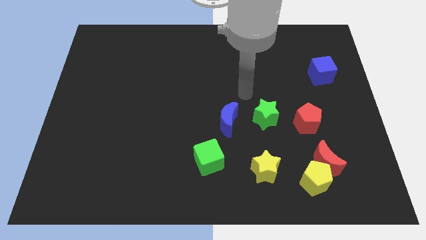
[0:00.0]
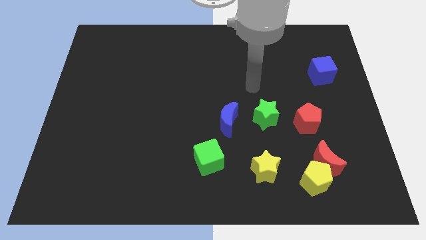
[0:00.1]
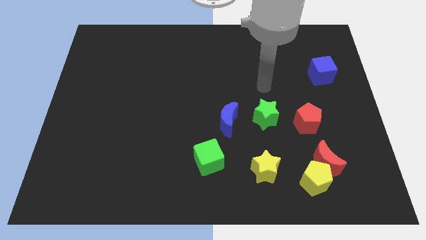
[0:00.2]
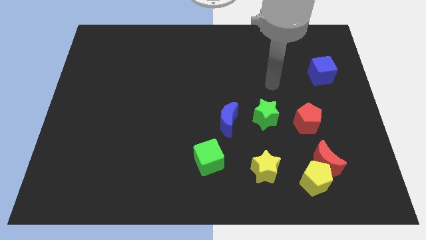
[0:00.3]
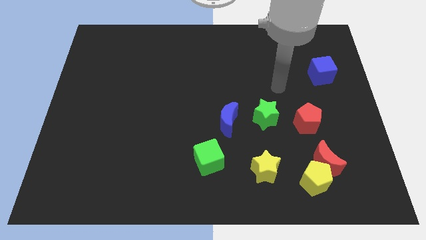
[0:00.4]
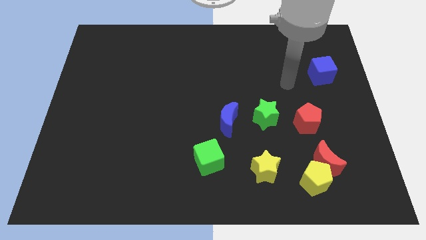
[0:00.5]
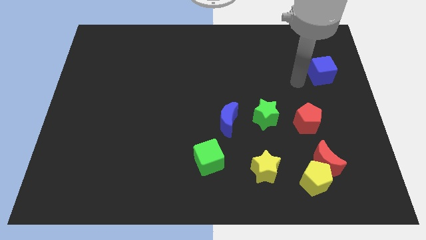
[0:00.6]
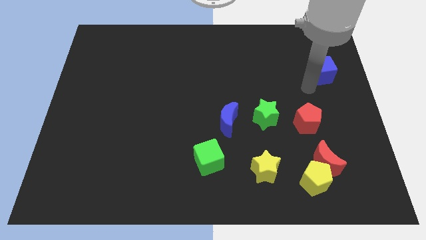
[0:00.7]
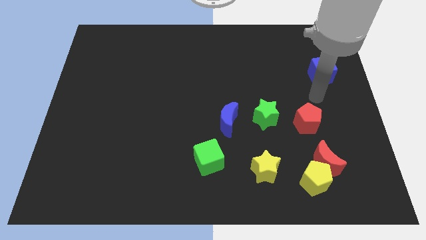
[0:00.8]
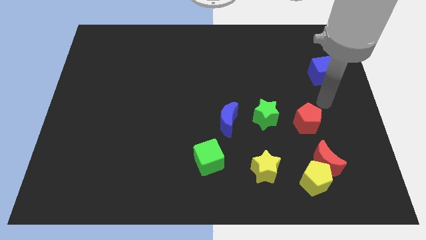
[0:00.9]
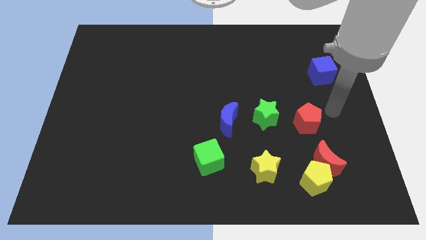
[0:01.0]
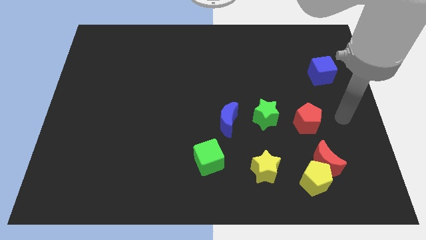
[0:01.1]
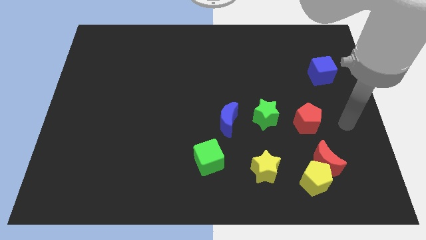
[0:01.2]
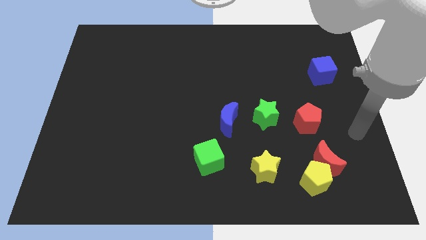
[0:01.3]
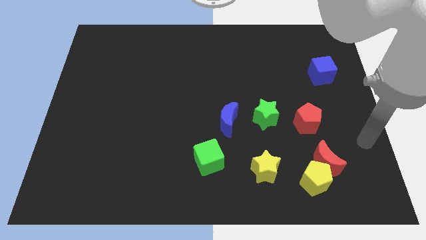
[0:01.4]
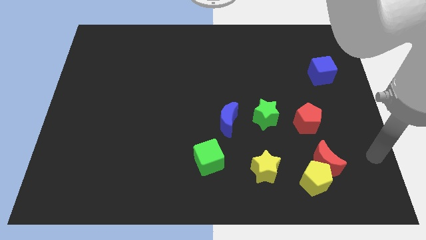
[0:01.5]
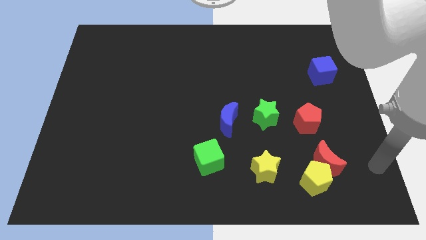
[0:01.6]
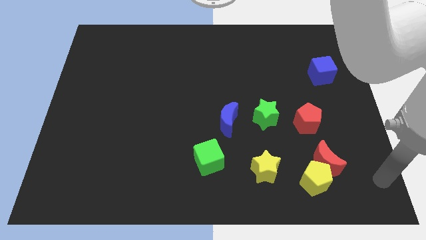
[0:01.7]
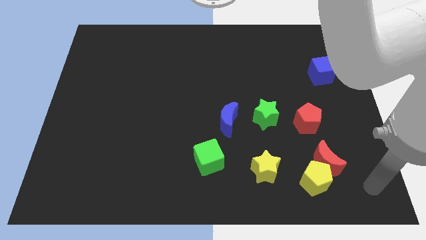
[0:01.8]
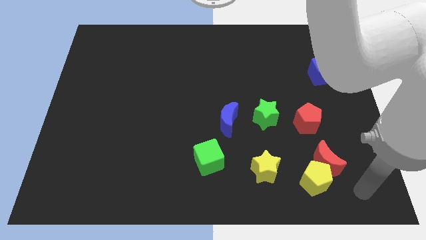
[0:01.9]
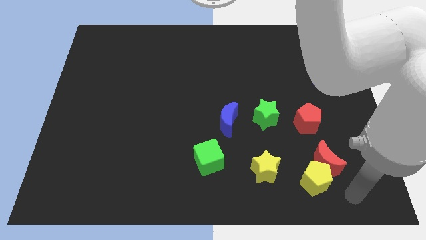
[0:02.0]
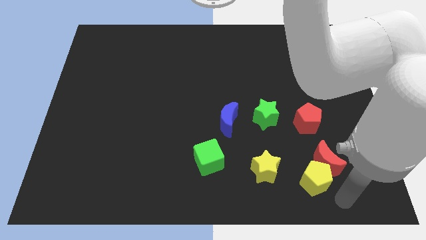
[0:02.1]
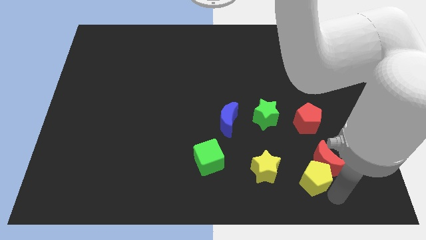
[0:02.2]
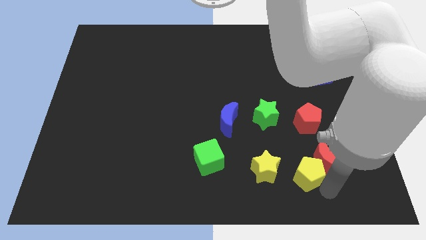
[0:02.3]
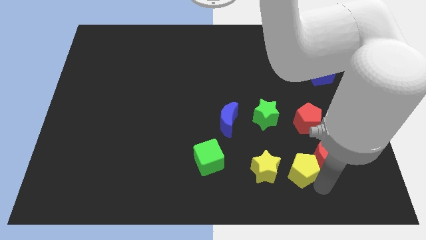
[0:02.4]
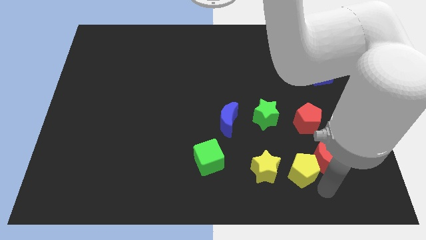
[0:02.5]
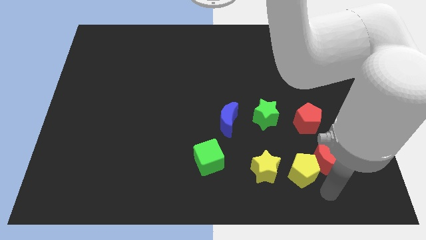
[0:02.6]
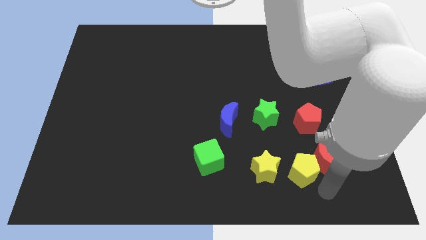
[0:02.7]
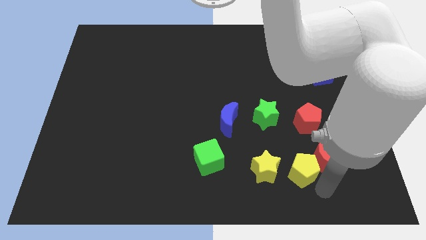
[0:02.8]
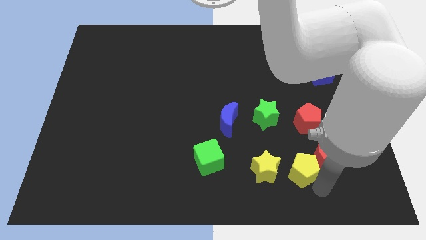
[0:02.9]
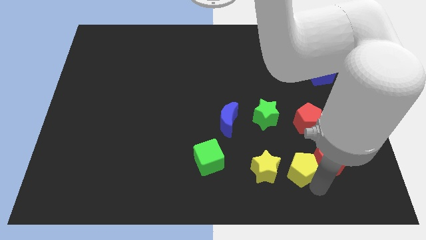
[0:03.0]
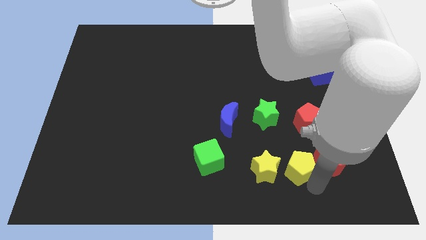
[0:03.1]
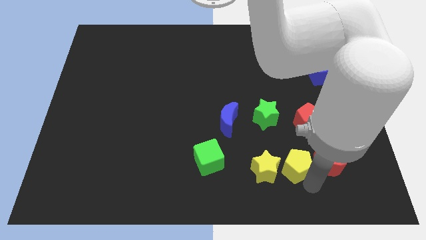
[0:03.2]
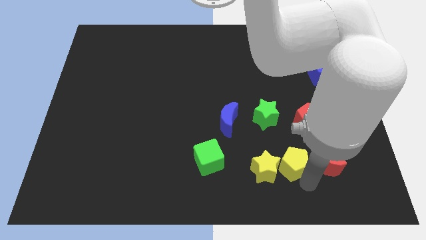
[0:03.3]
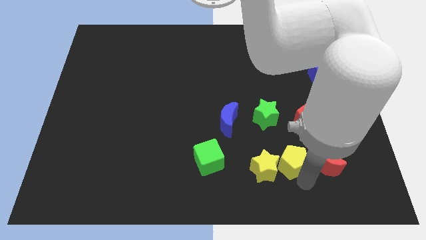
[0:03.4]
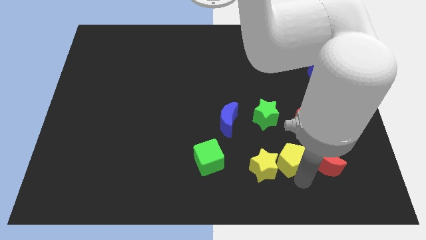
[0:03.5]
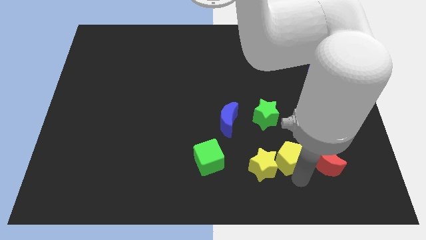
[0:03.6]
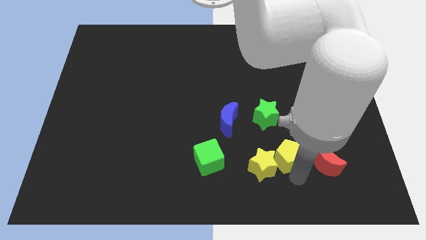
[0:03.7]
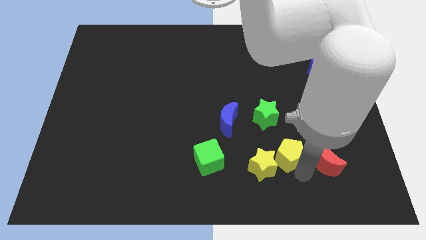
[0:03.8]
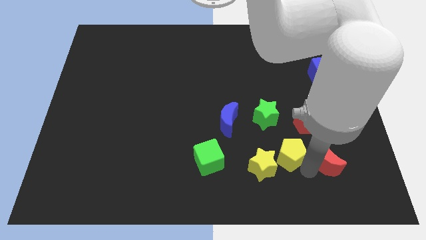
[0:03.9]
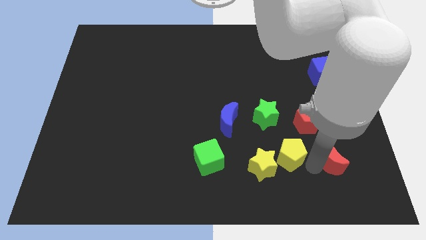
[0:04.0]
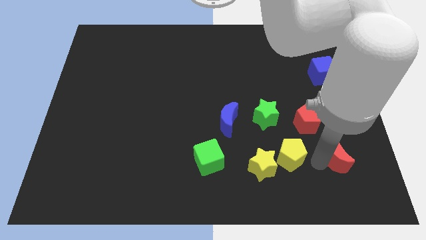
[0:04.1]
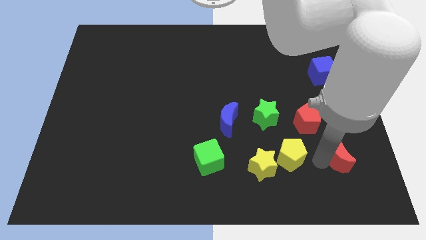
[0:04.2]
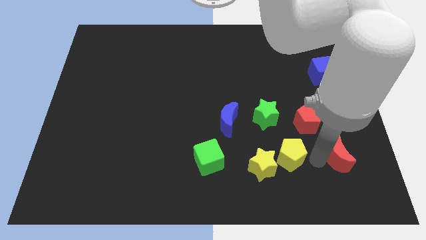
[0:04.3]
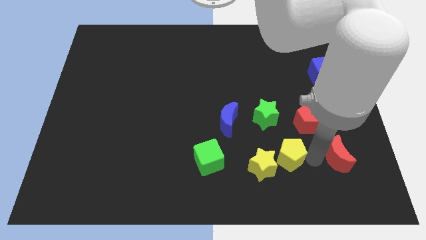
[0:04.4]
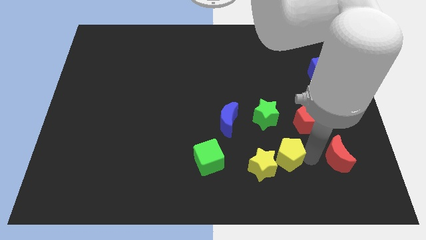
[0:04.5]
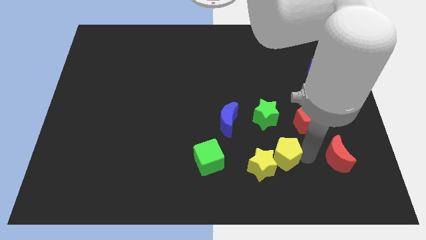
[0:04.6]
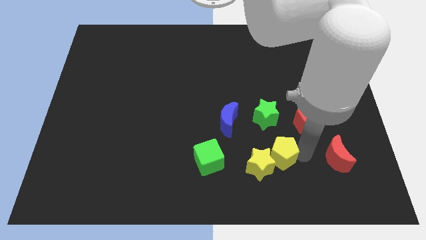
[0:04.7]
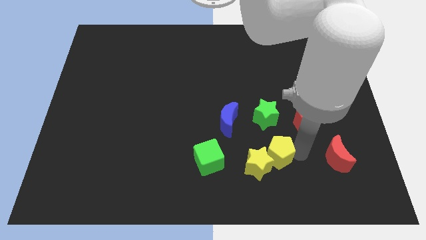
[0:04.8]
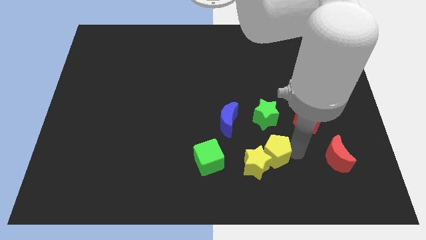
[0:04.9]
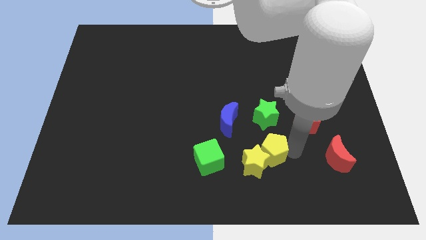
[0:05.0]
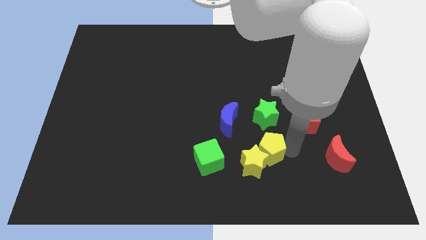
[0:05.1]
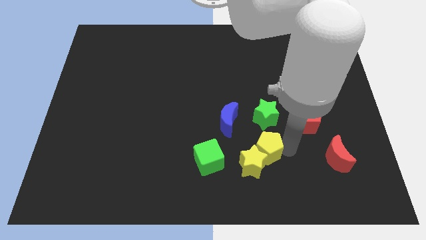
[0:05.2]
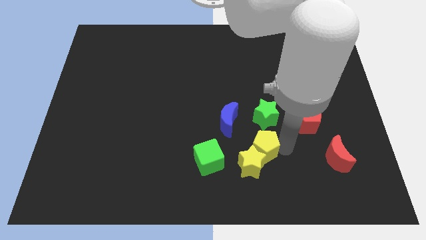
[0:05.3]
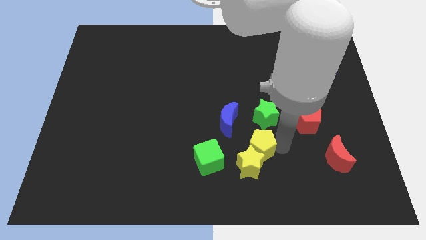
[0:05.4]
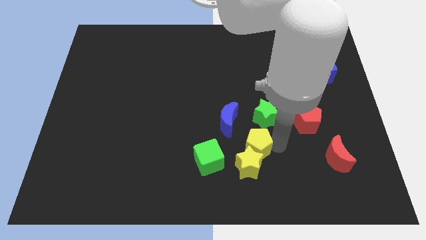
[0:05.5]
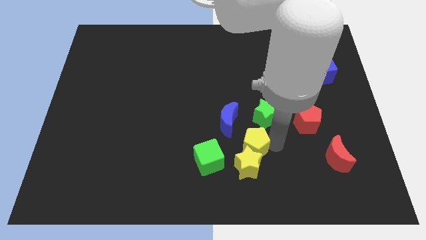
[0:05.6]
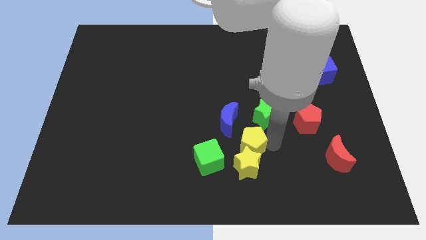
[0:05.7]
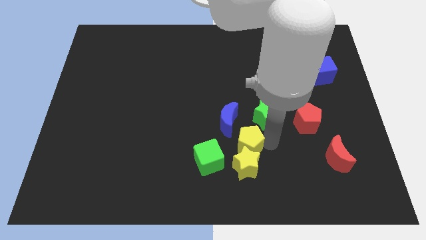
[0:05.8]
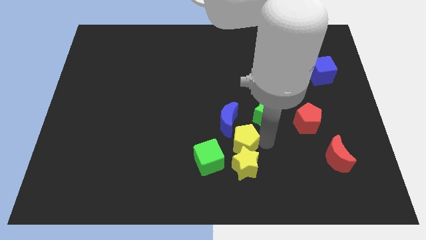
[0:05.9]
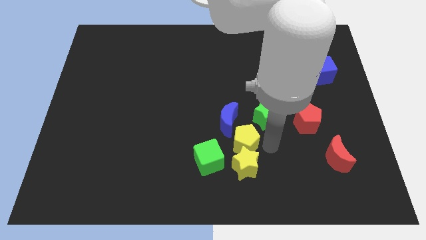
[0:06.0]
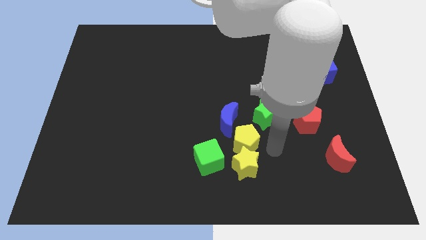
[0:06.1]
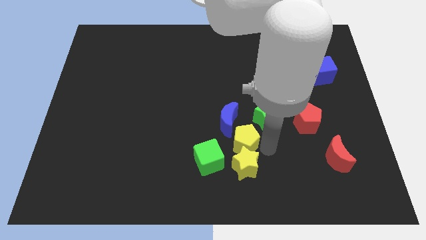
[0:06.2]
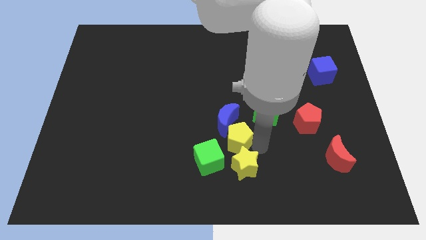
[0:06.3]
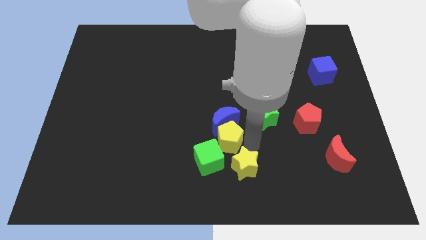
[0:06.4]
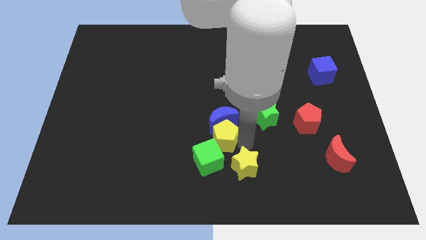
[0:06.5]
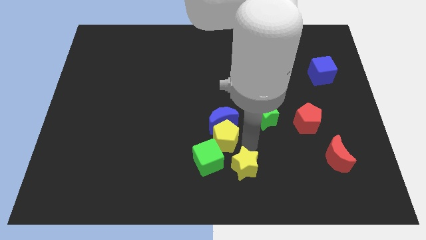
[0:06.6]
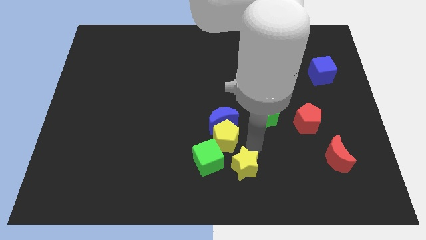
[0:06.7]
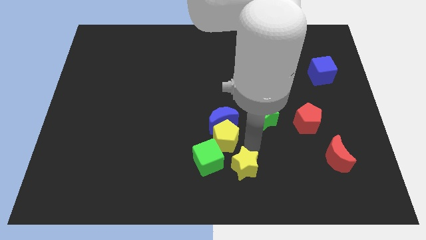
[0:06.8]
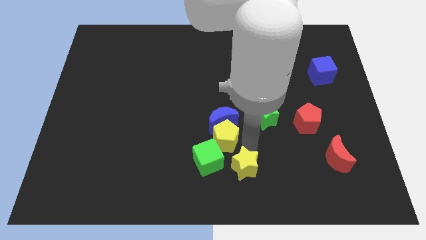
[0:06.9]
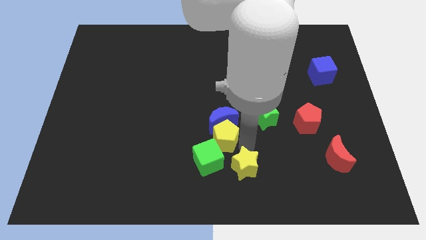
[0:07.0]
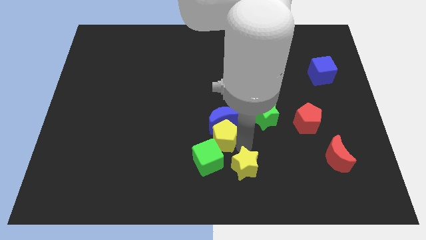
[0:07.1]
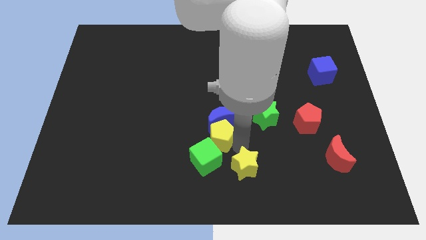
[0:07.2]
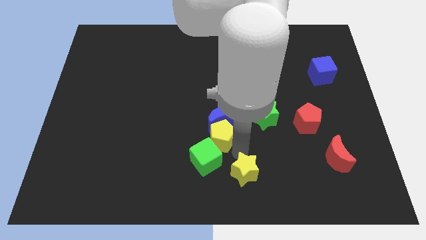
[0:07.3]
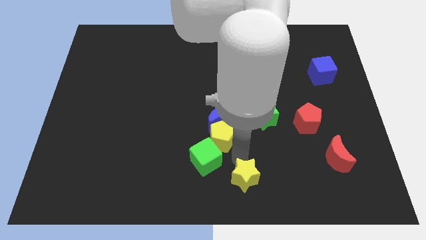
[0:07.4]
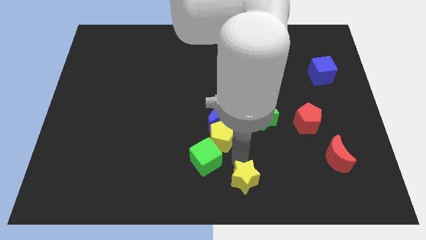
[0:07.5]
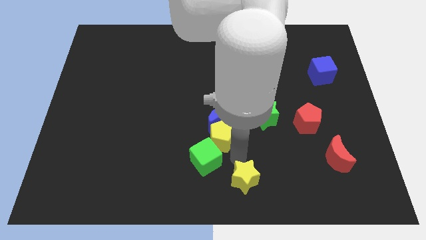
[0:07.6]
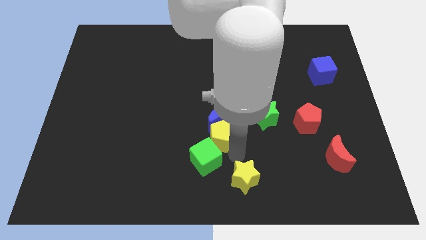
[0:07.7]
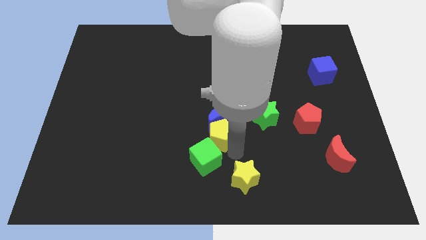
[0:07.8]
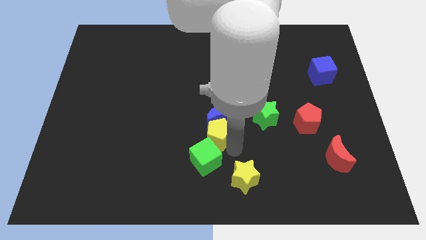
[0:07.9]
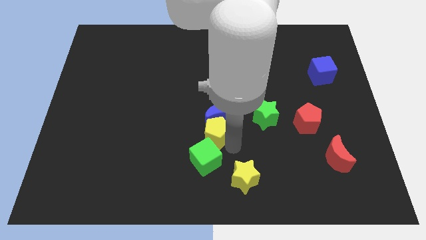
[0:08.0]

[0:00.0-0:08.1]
slide the yellow pentagon up and then left
